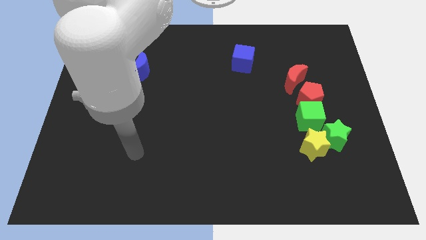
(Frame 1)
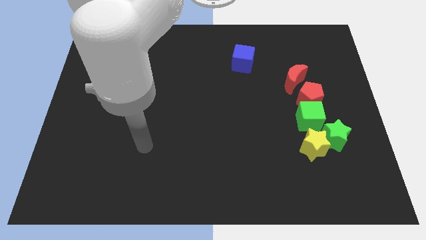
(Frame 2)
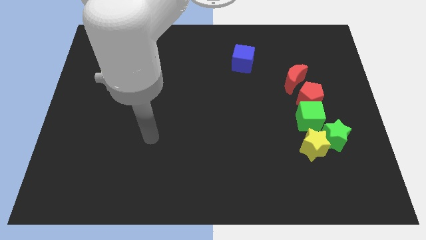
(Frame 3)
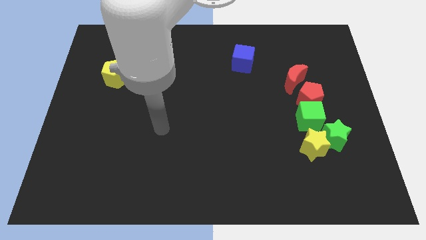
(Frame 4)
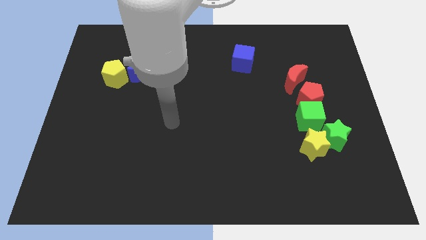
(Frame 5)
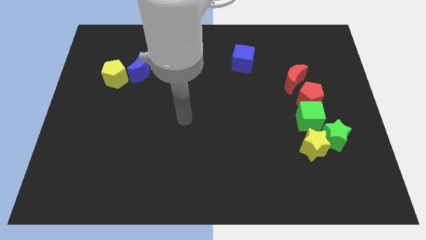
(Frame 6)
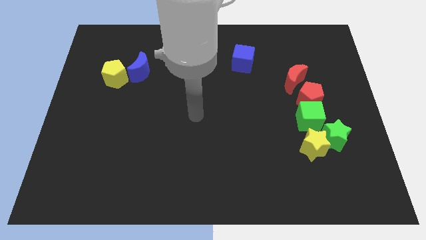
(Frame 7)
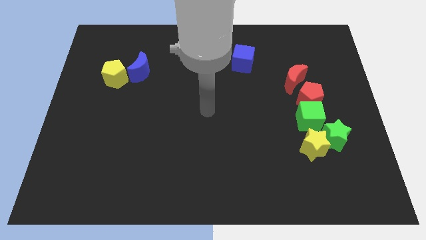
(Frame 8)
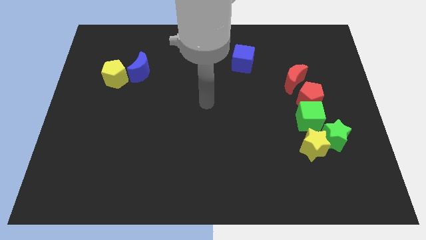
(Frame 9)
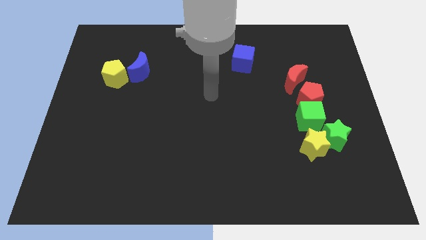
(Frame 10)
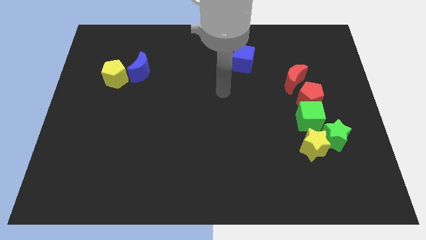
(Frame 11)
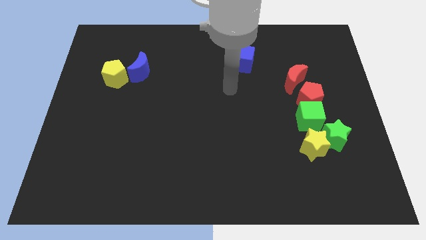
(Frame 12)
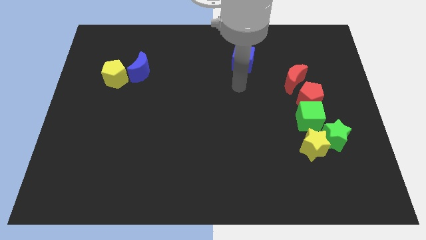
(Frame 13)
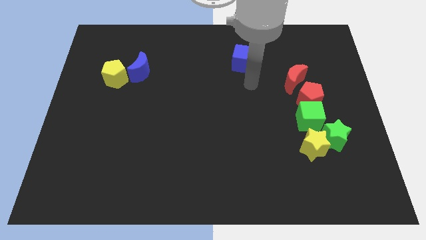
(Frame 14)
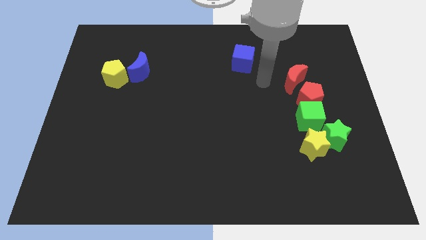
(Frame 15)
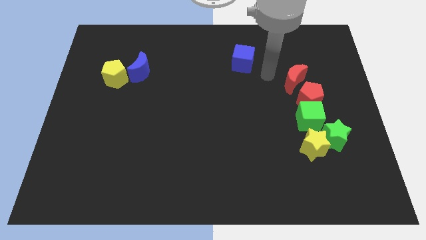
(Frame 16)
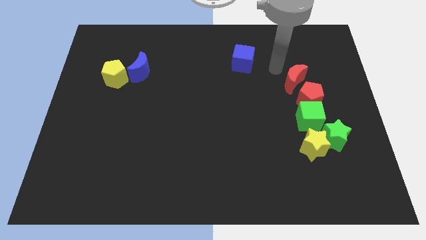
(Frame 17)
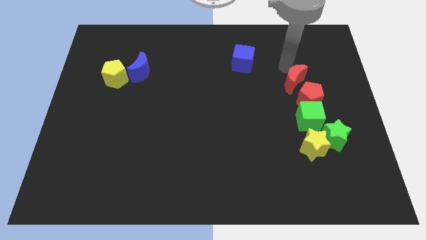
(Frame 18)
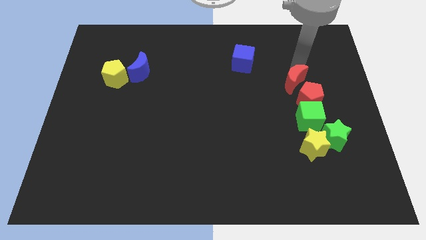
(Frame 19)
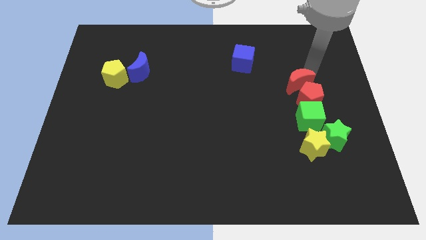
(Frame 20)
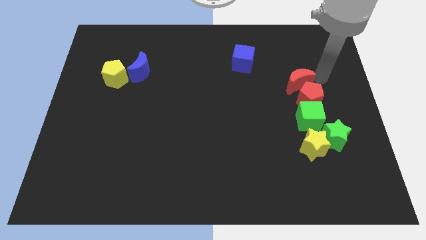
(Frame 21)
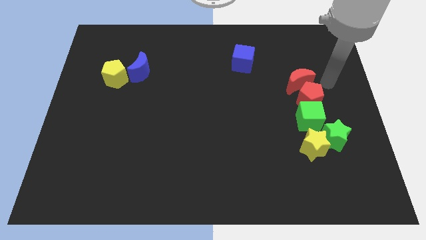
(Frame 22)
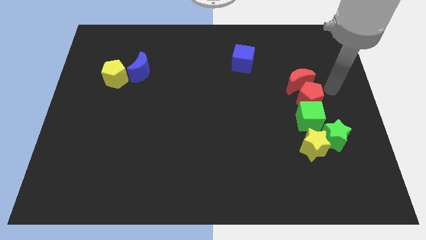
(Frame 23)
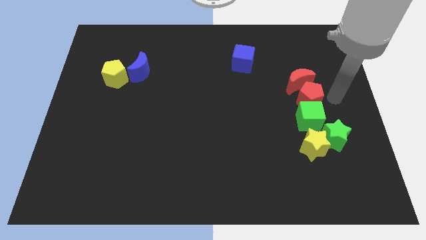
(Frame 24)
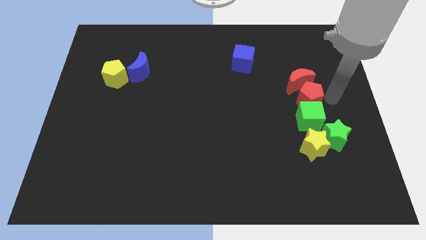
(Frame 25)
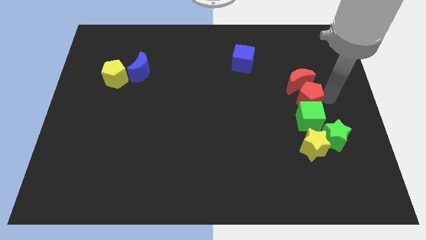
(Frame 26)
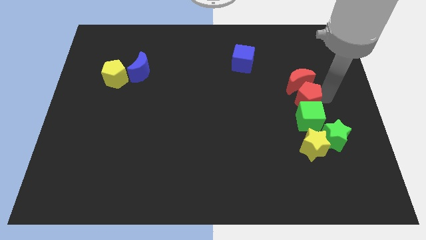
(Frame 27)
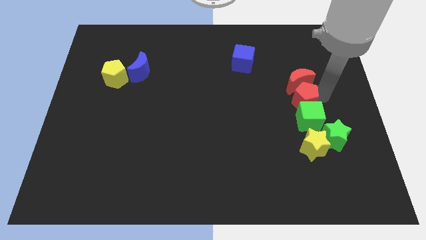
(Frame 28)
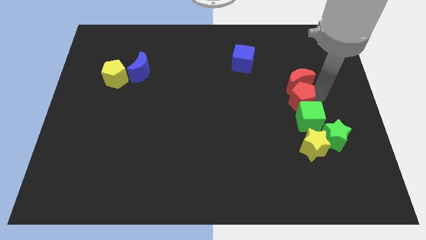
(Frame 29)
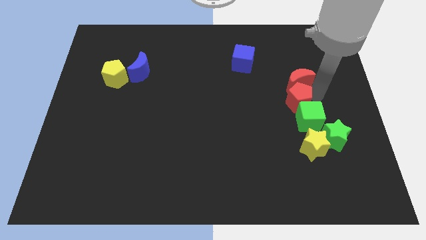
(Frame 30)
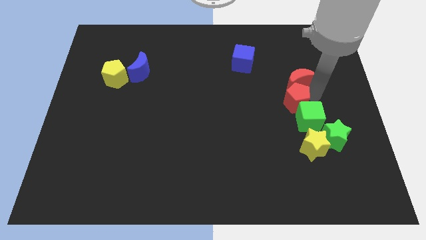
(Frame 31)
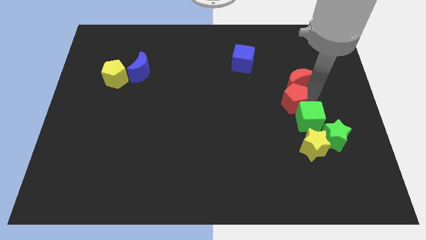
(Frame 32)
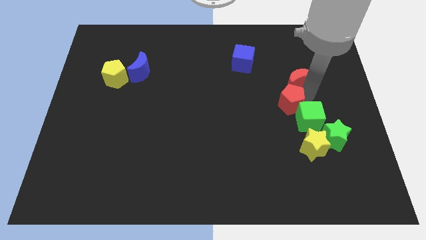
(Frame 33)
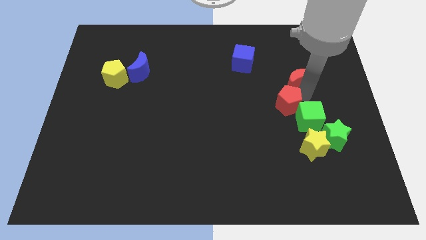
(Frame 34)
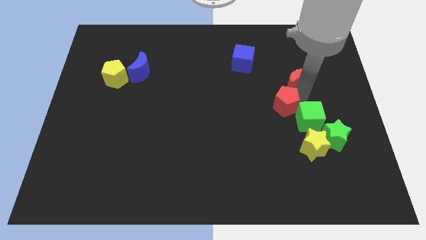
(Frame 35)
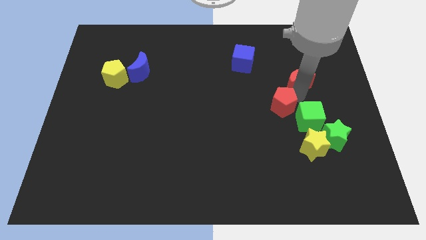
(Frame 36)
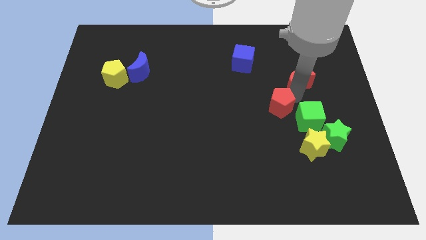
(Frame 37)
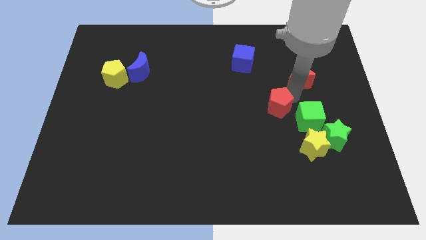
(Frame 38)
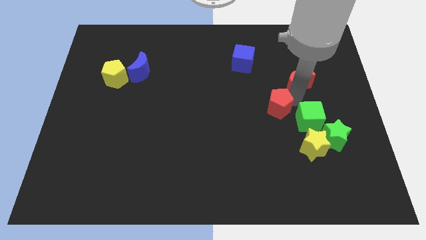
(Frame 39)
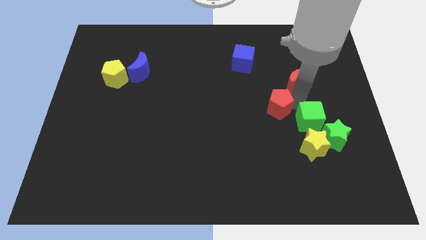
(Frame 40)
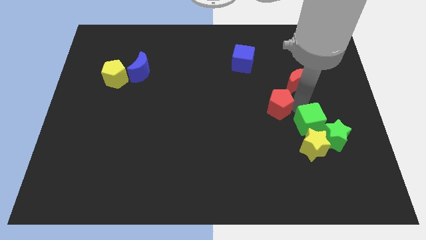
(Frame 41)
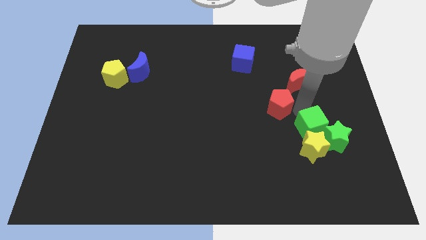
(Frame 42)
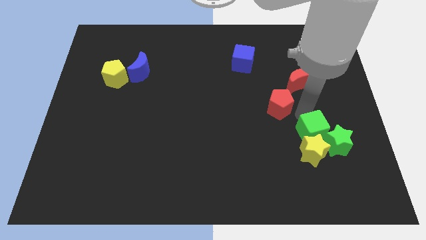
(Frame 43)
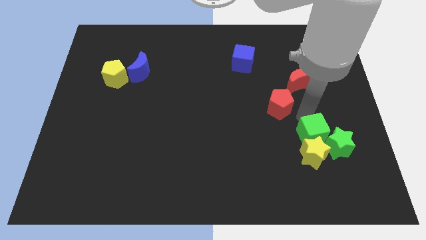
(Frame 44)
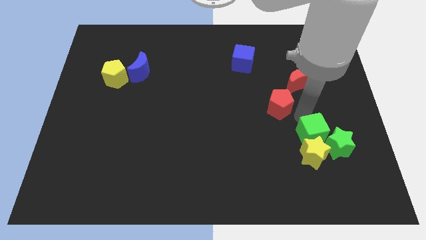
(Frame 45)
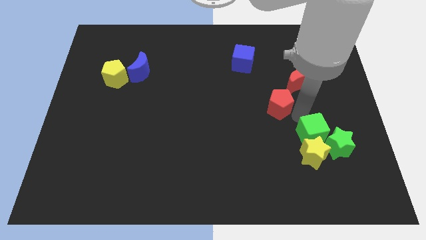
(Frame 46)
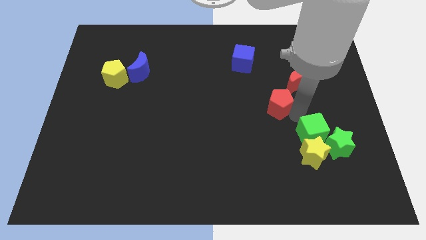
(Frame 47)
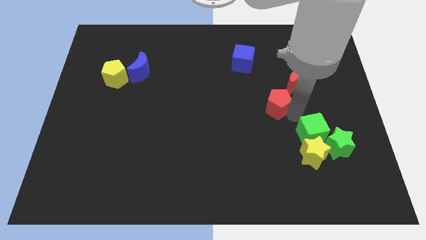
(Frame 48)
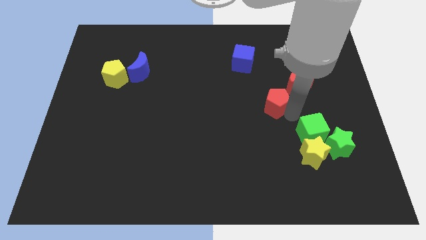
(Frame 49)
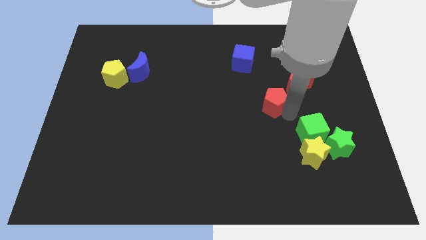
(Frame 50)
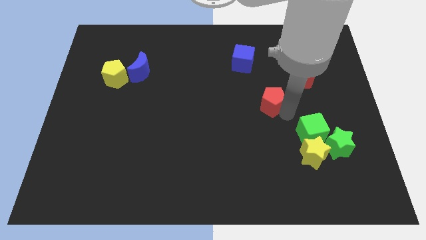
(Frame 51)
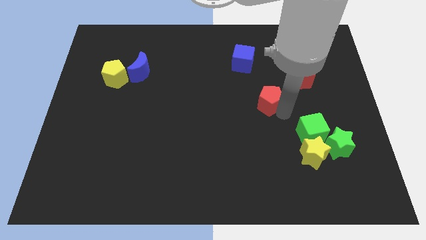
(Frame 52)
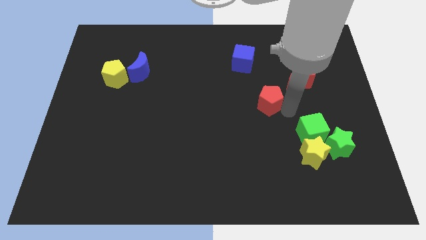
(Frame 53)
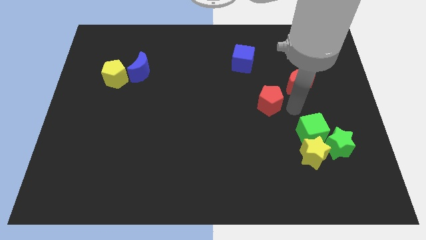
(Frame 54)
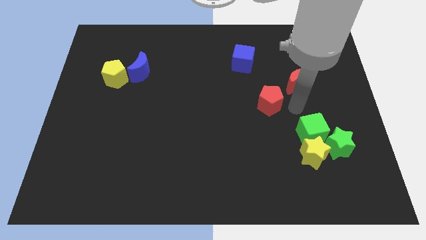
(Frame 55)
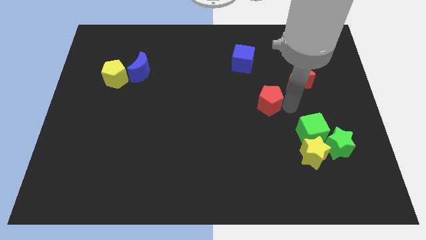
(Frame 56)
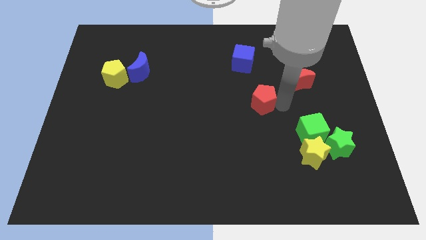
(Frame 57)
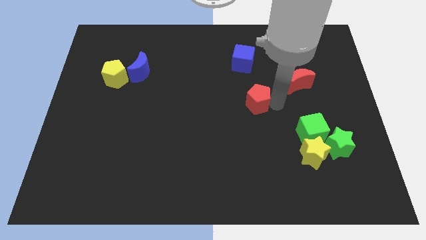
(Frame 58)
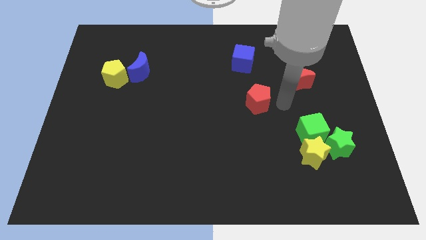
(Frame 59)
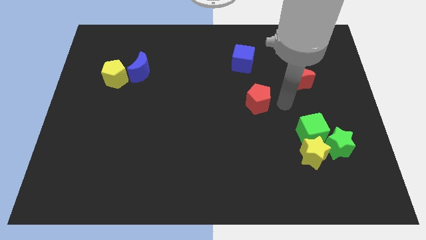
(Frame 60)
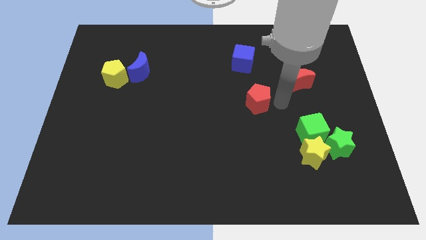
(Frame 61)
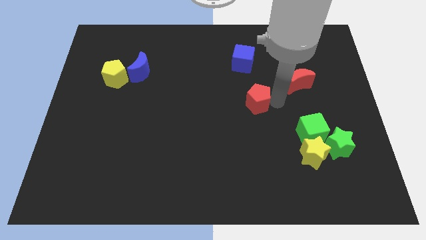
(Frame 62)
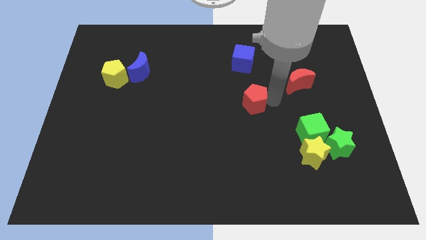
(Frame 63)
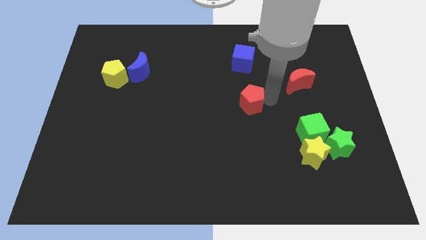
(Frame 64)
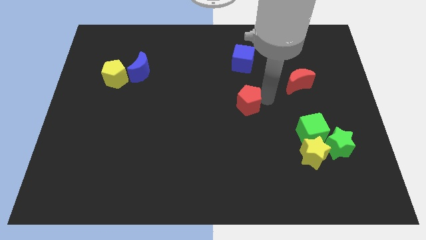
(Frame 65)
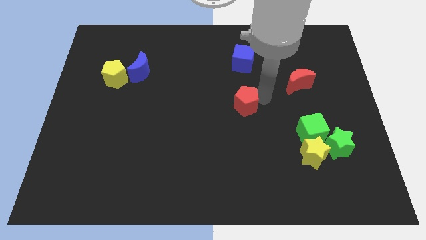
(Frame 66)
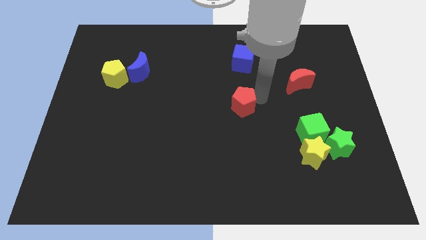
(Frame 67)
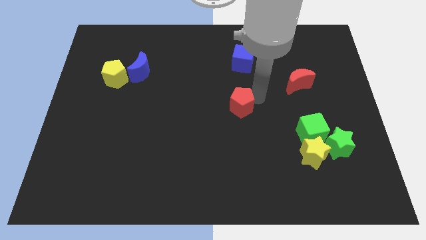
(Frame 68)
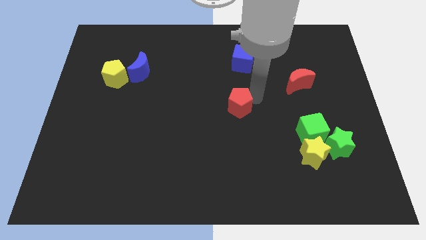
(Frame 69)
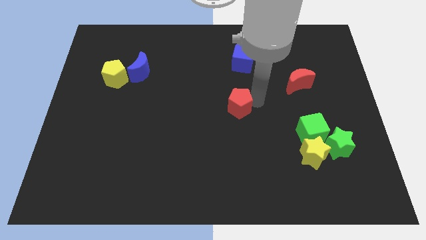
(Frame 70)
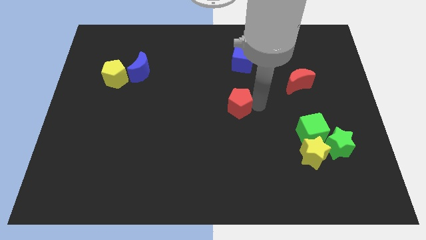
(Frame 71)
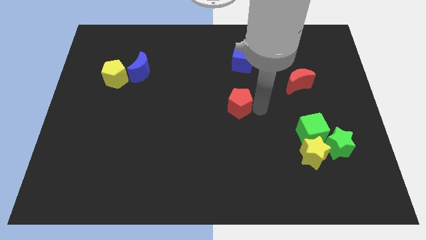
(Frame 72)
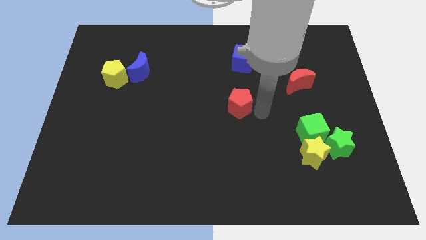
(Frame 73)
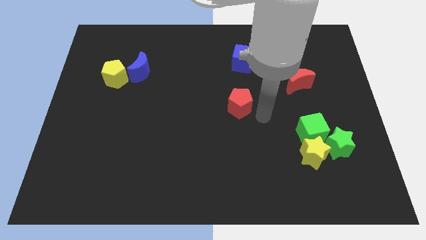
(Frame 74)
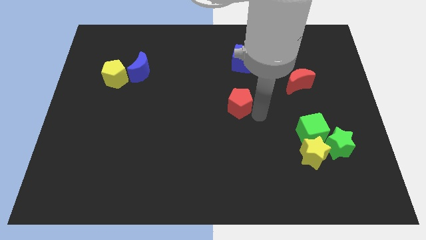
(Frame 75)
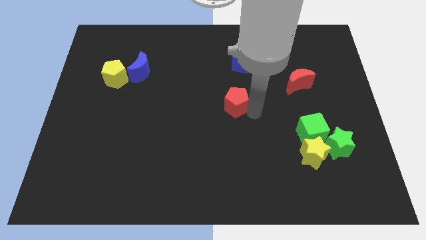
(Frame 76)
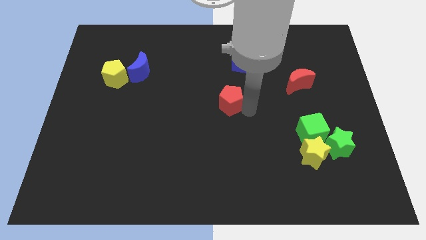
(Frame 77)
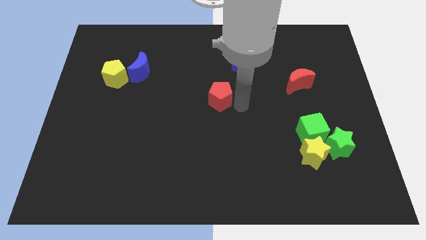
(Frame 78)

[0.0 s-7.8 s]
move the red pentagon to the left
